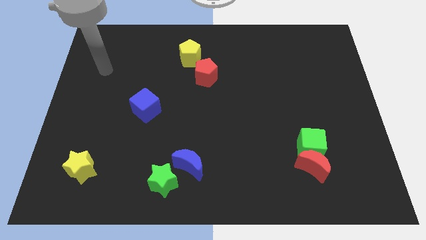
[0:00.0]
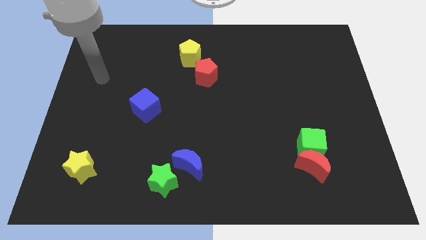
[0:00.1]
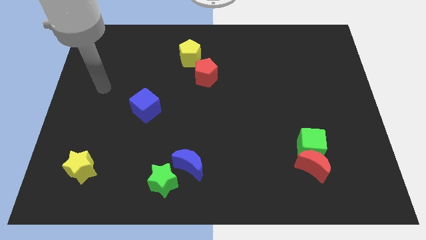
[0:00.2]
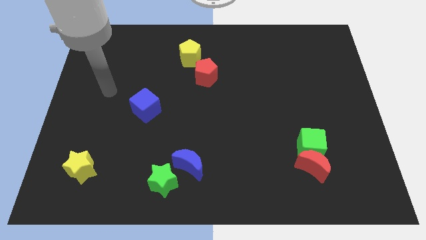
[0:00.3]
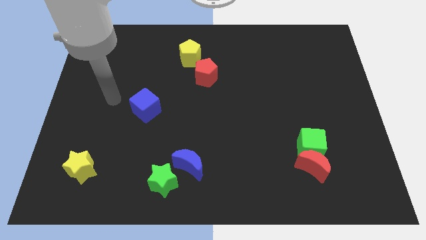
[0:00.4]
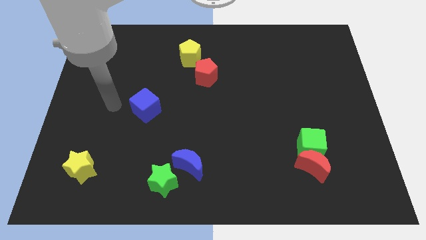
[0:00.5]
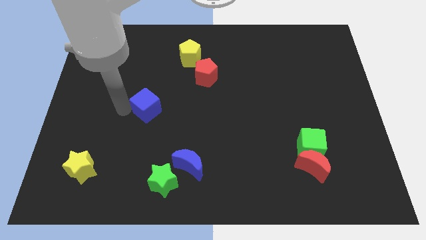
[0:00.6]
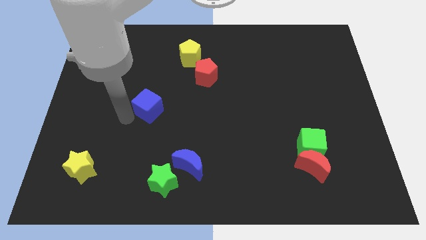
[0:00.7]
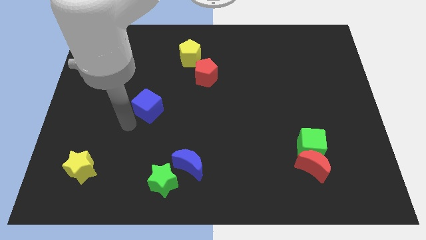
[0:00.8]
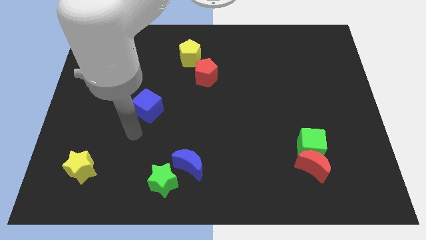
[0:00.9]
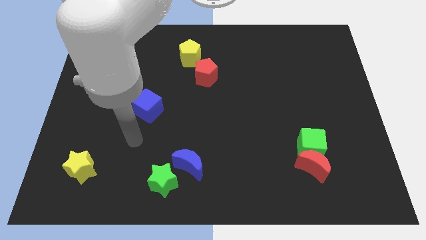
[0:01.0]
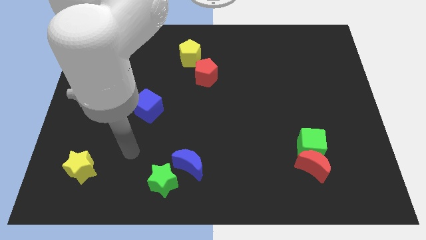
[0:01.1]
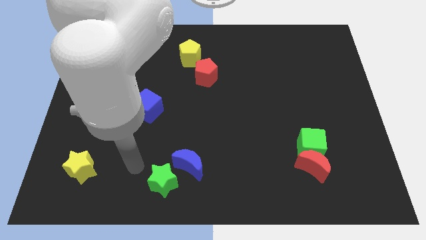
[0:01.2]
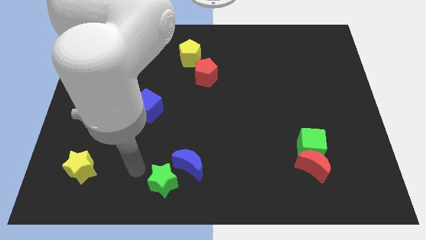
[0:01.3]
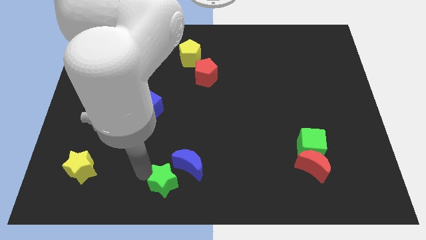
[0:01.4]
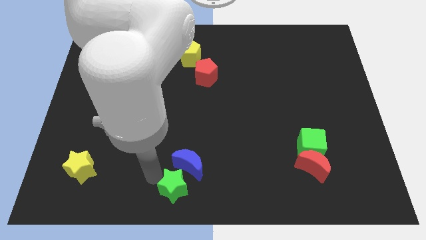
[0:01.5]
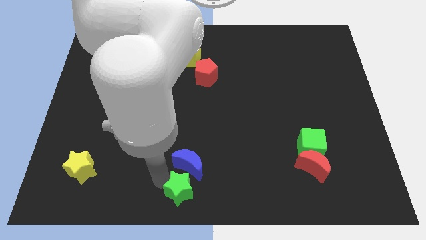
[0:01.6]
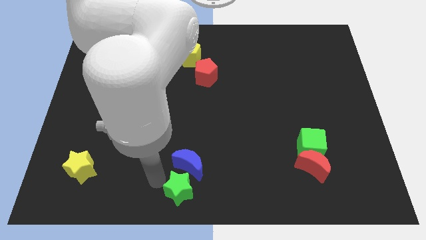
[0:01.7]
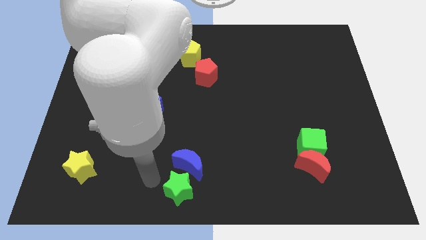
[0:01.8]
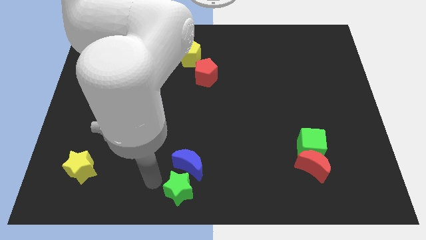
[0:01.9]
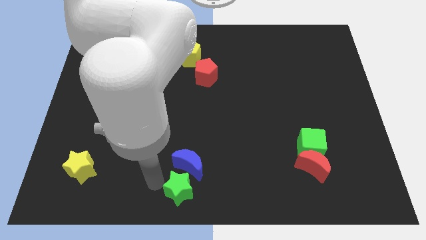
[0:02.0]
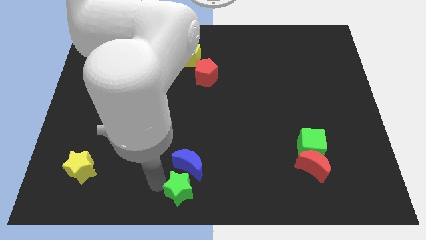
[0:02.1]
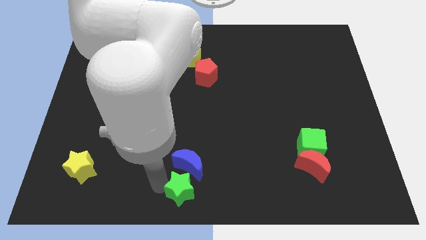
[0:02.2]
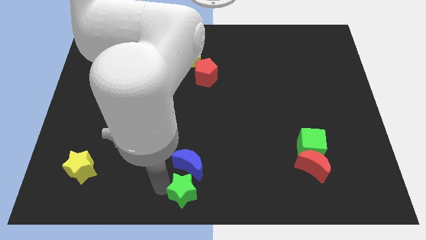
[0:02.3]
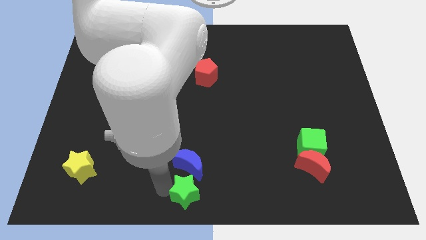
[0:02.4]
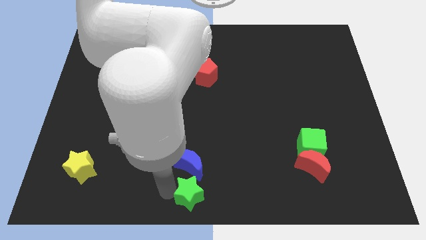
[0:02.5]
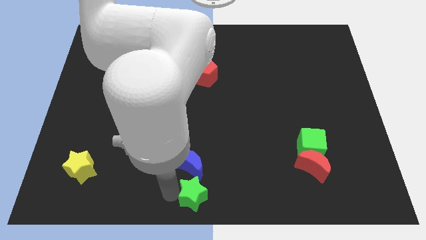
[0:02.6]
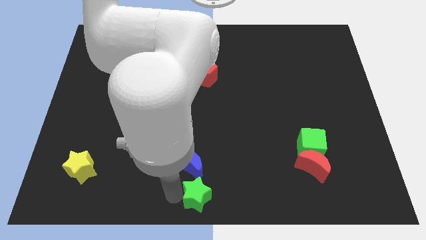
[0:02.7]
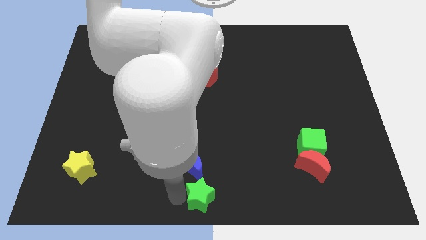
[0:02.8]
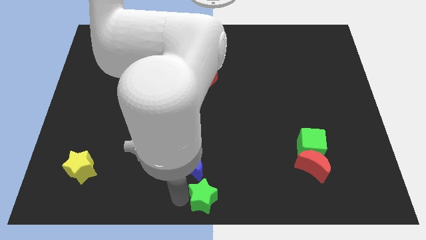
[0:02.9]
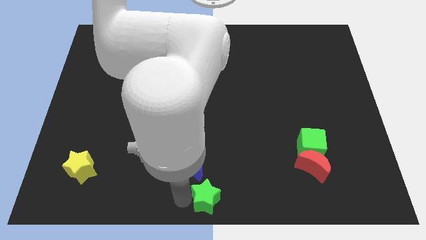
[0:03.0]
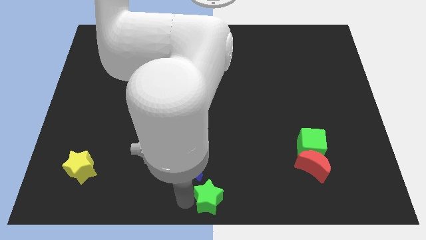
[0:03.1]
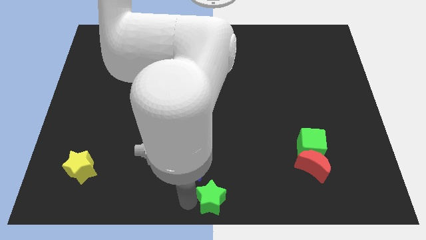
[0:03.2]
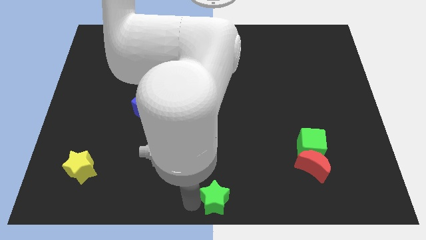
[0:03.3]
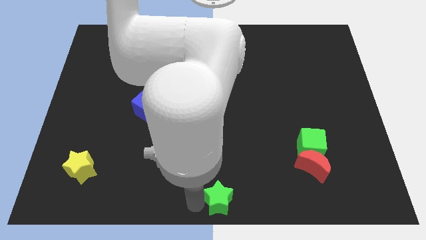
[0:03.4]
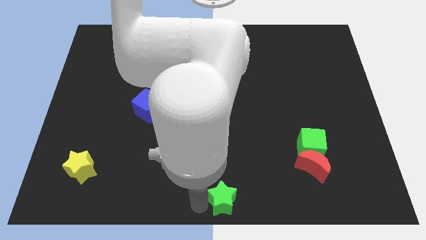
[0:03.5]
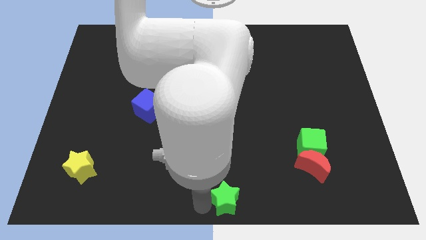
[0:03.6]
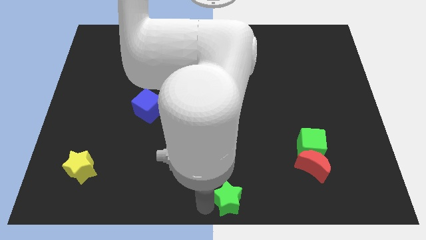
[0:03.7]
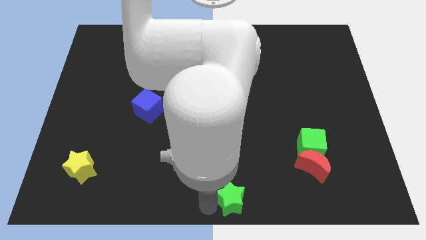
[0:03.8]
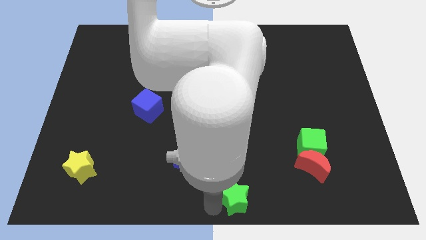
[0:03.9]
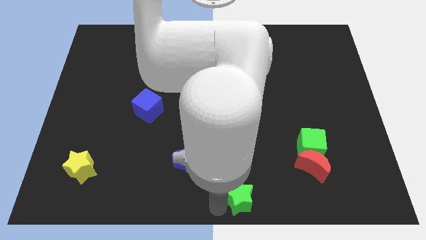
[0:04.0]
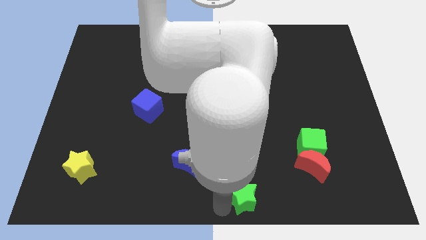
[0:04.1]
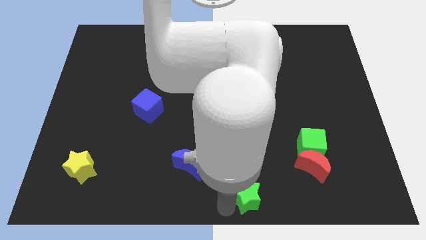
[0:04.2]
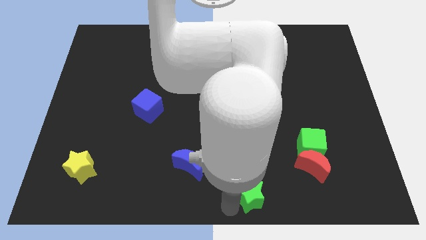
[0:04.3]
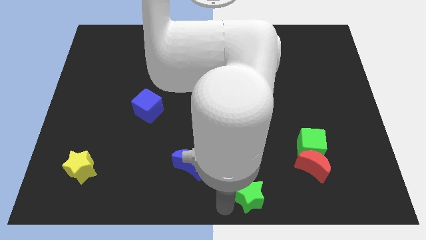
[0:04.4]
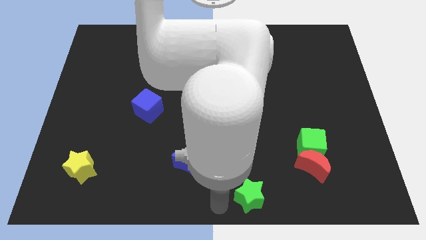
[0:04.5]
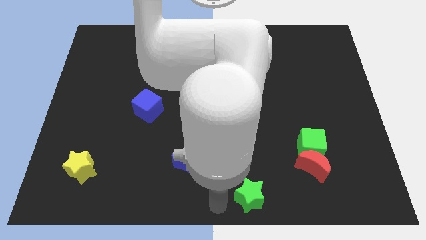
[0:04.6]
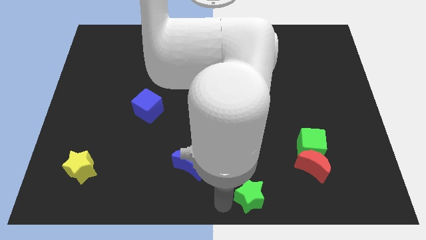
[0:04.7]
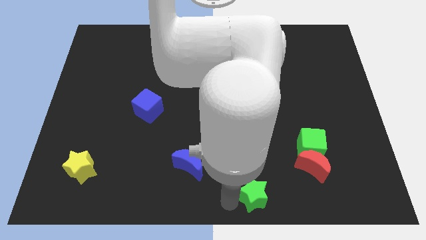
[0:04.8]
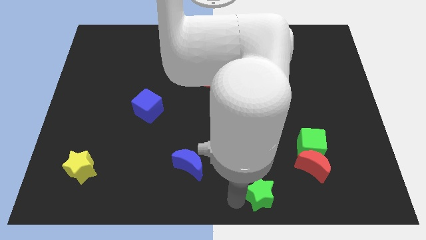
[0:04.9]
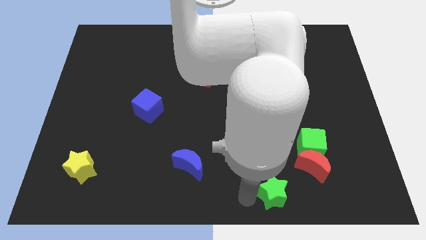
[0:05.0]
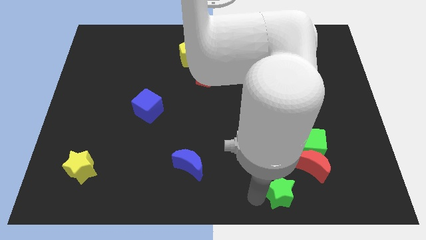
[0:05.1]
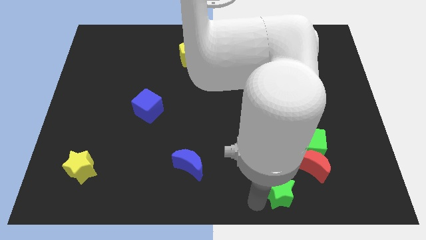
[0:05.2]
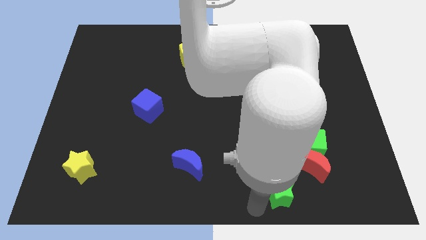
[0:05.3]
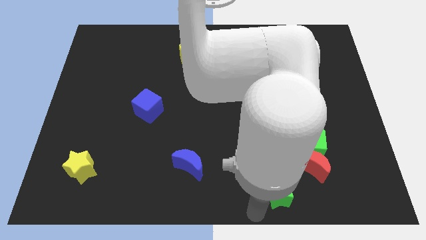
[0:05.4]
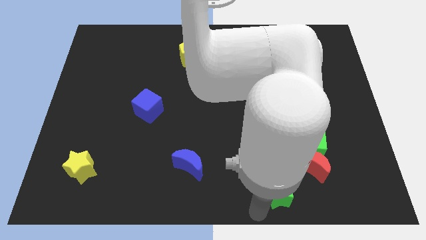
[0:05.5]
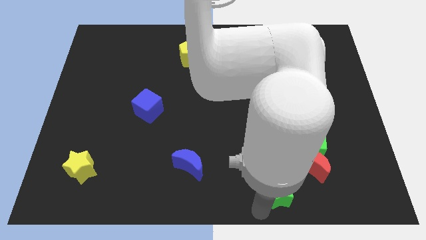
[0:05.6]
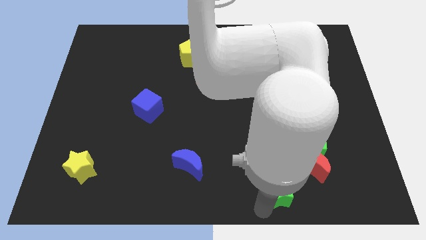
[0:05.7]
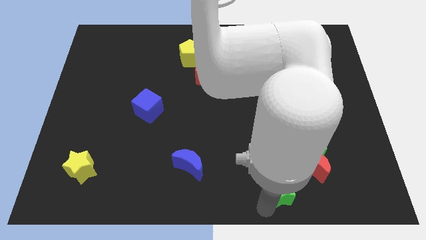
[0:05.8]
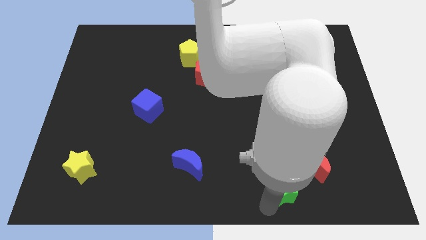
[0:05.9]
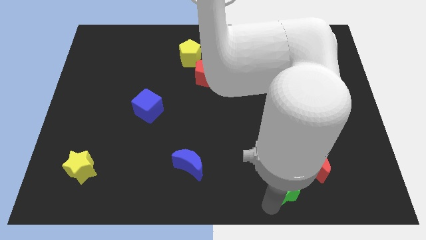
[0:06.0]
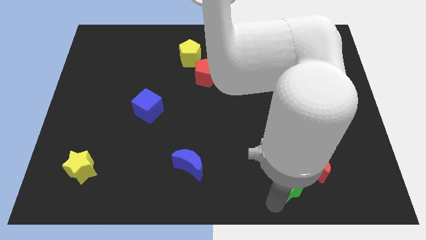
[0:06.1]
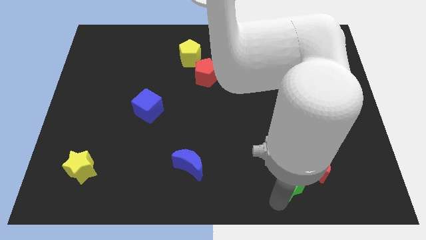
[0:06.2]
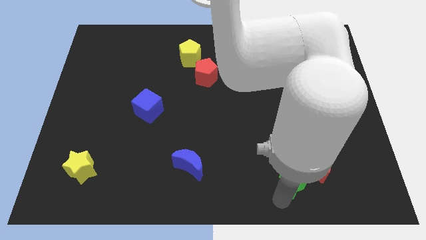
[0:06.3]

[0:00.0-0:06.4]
put the green star close to the red moon

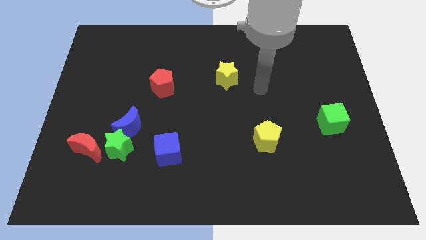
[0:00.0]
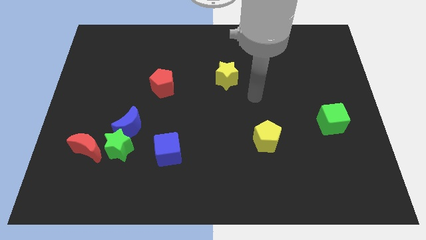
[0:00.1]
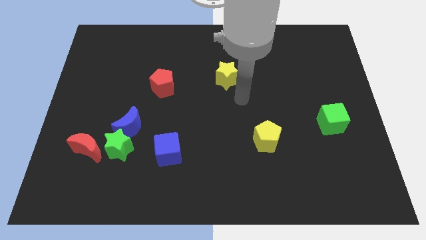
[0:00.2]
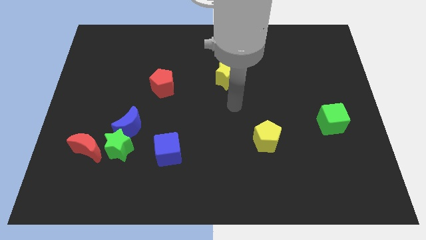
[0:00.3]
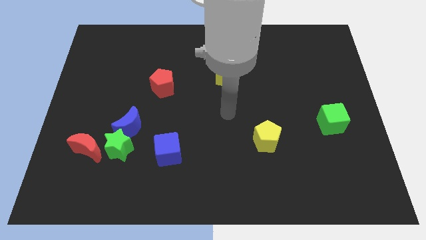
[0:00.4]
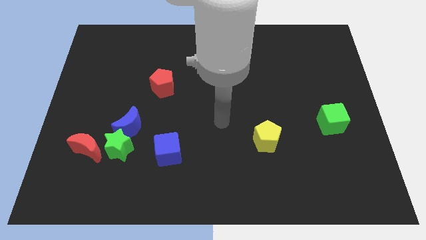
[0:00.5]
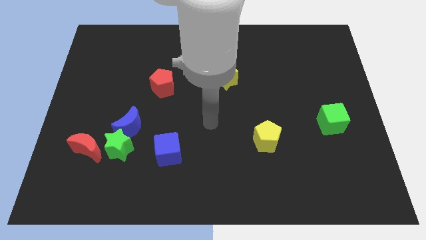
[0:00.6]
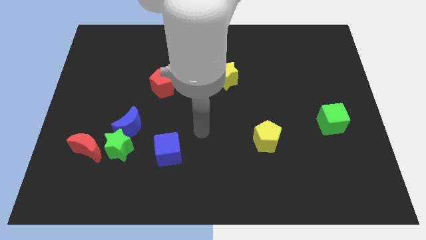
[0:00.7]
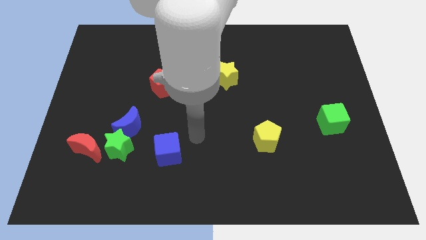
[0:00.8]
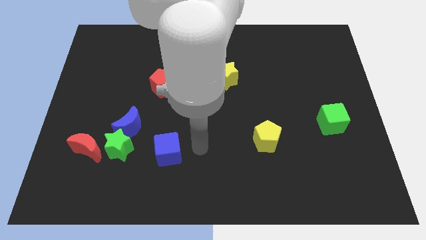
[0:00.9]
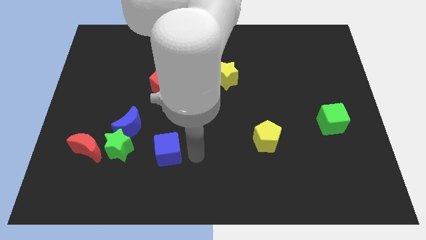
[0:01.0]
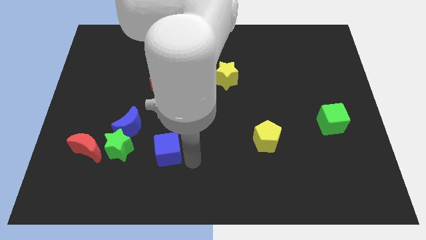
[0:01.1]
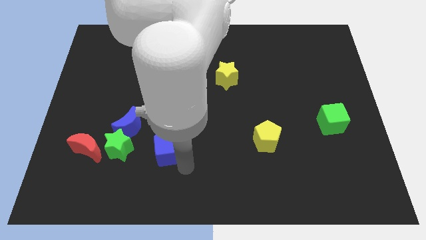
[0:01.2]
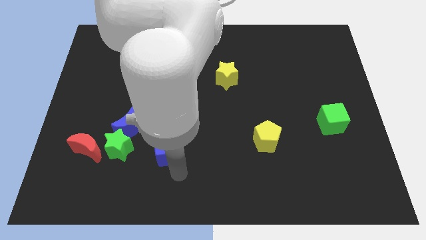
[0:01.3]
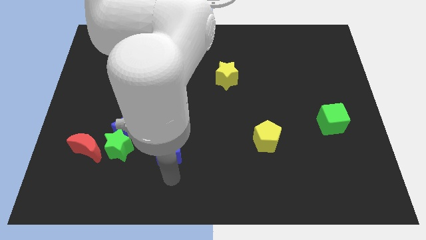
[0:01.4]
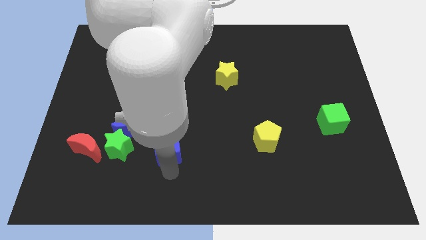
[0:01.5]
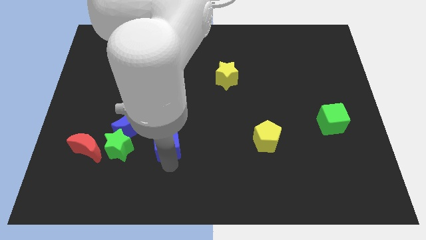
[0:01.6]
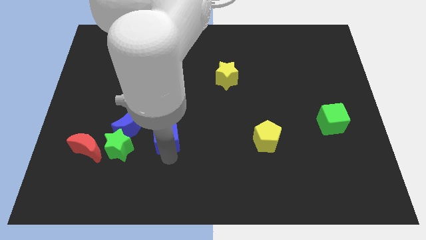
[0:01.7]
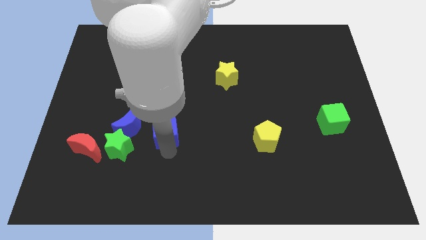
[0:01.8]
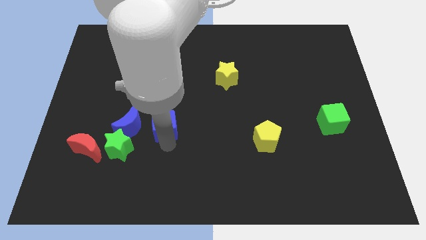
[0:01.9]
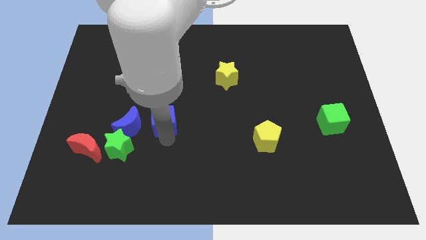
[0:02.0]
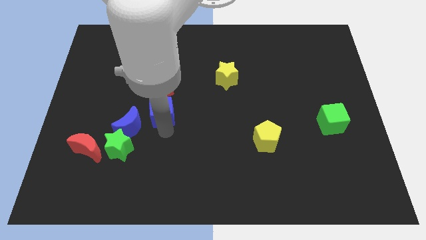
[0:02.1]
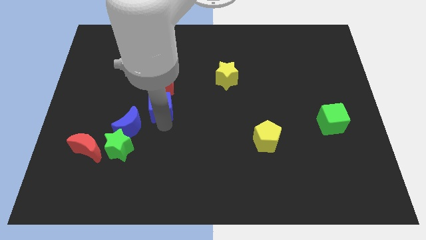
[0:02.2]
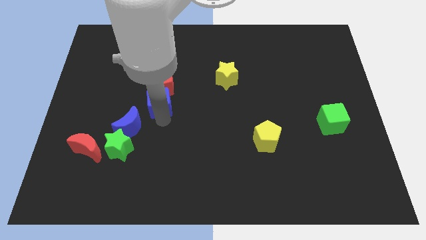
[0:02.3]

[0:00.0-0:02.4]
move the blue cube next to the red pentagon
